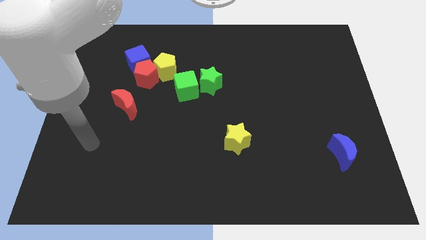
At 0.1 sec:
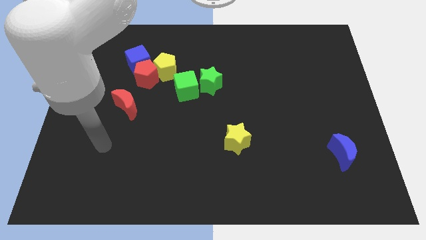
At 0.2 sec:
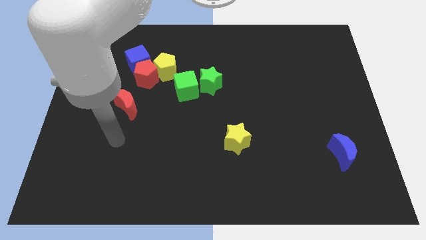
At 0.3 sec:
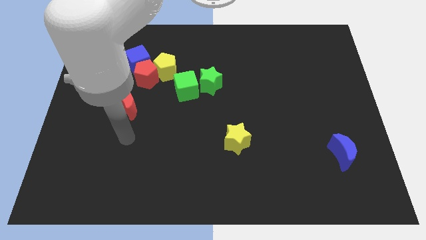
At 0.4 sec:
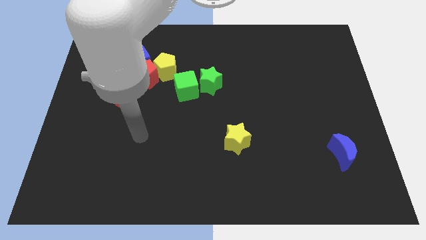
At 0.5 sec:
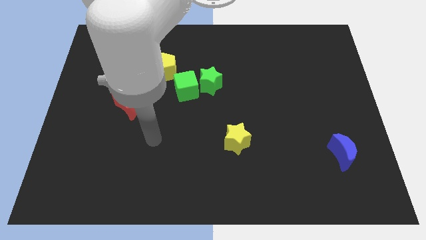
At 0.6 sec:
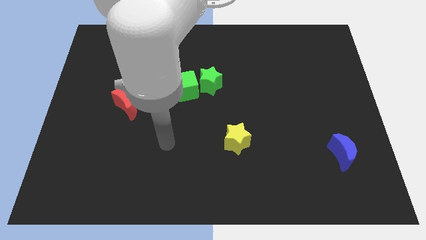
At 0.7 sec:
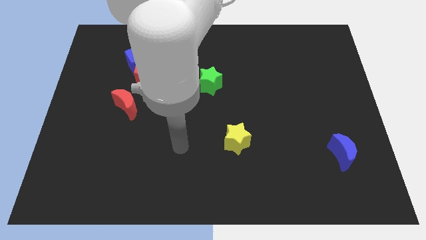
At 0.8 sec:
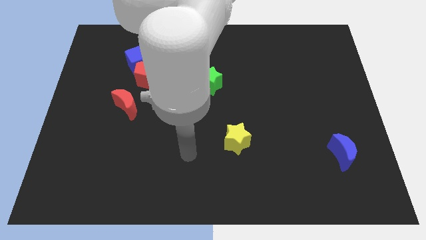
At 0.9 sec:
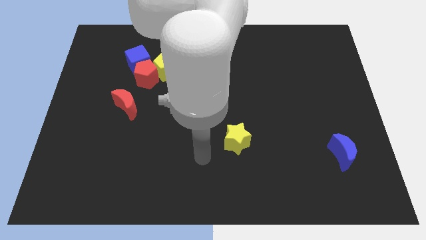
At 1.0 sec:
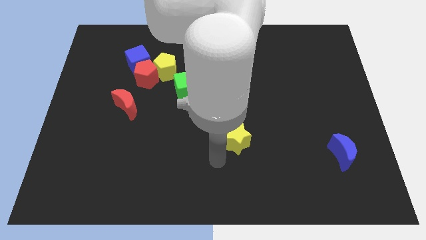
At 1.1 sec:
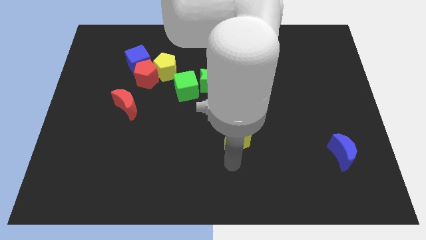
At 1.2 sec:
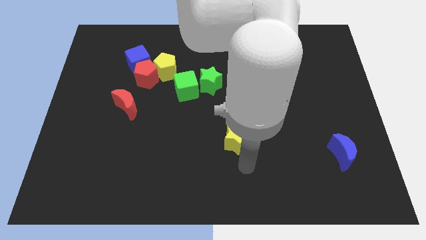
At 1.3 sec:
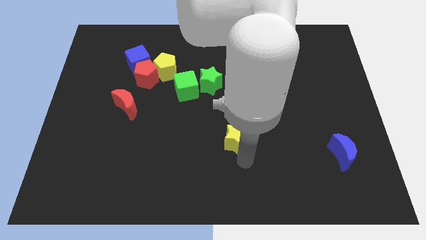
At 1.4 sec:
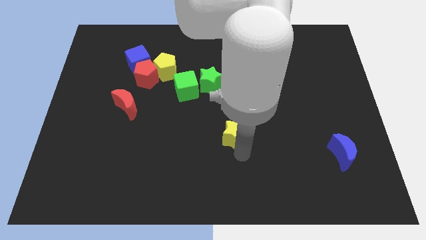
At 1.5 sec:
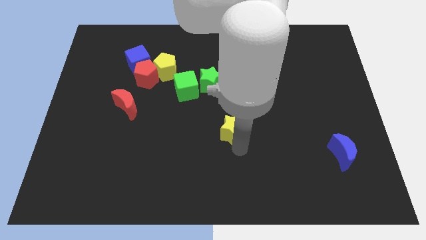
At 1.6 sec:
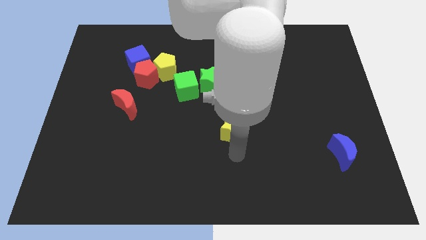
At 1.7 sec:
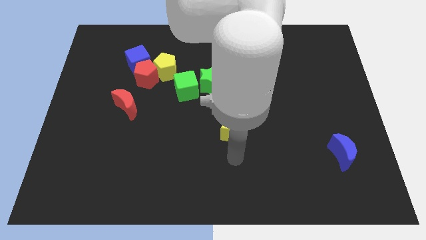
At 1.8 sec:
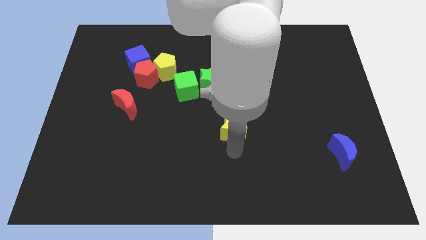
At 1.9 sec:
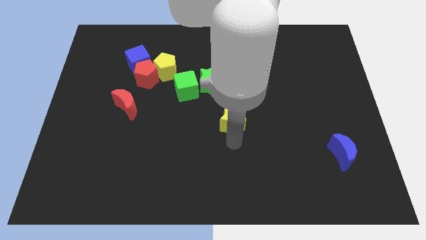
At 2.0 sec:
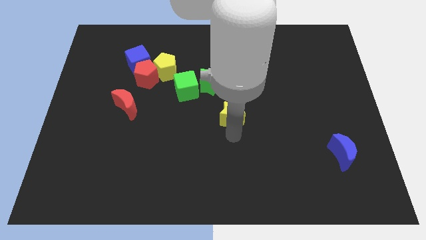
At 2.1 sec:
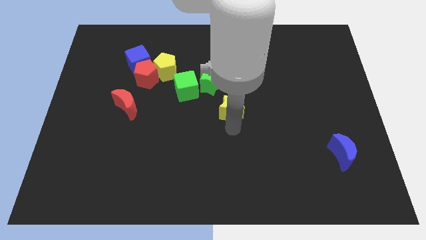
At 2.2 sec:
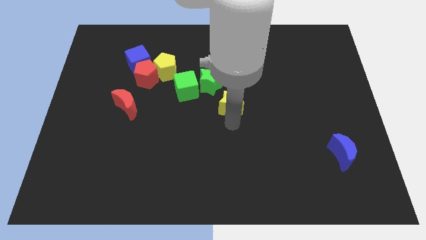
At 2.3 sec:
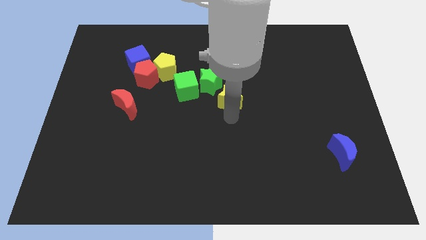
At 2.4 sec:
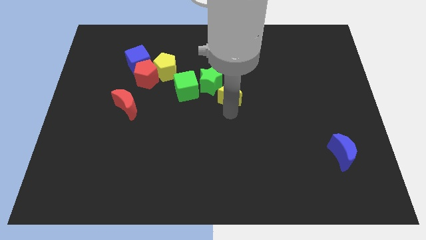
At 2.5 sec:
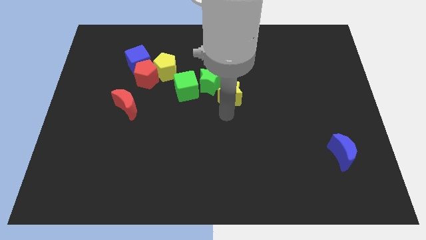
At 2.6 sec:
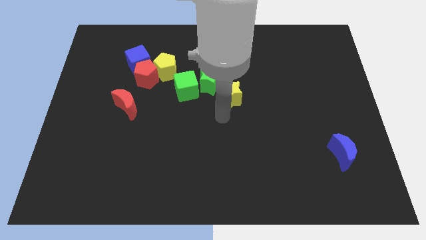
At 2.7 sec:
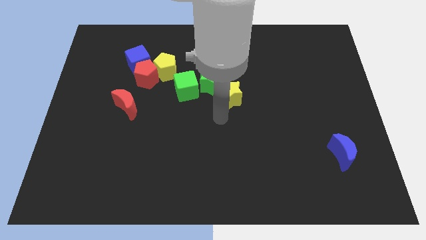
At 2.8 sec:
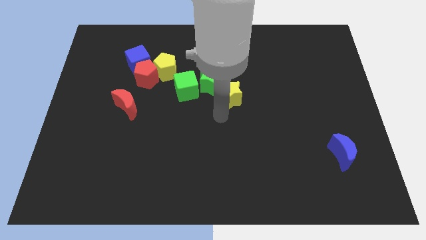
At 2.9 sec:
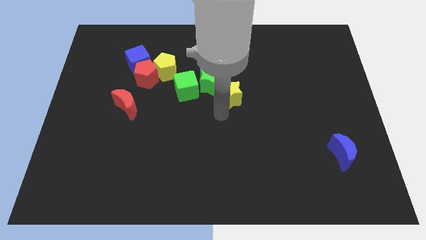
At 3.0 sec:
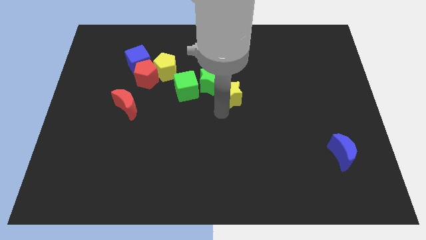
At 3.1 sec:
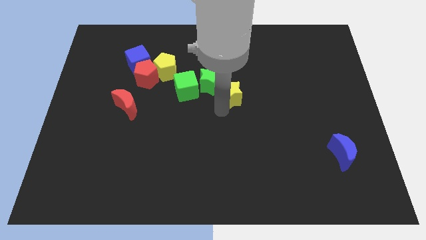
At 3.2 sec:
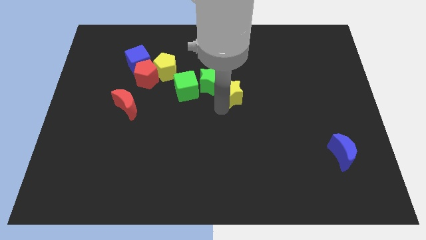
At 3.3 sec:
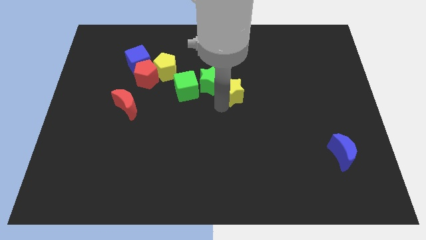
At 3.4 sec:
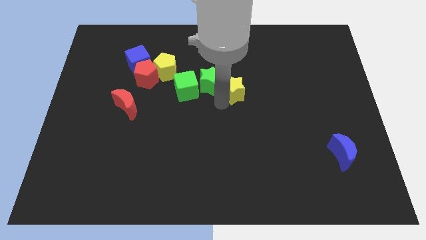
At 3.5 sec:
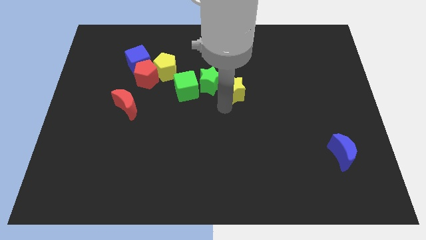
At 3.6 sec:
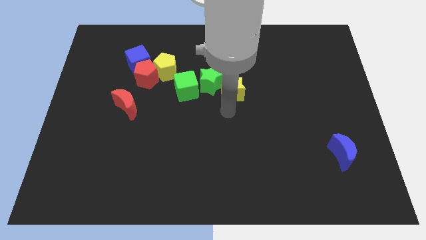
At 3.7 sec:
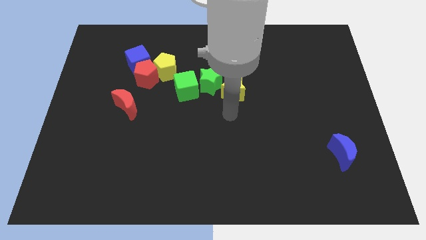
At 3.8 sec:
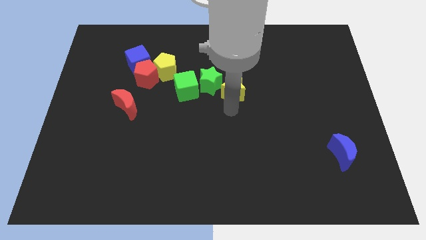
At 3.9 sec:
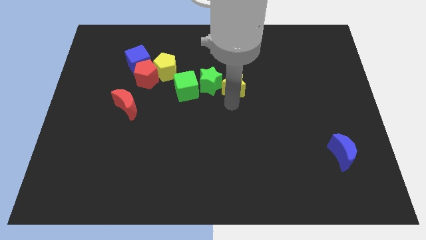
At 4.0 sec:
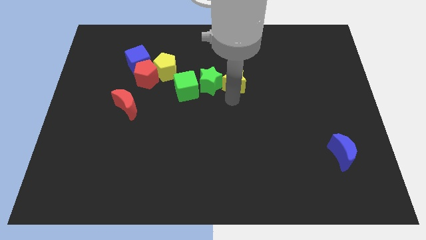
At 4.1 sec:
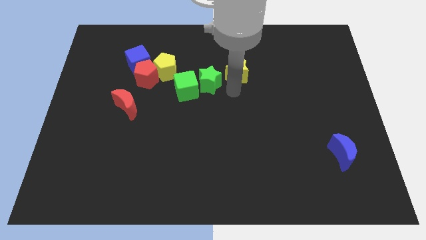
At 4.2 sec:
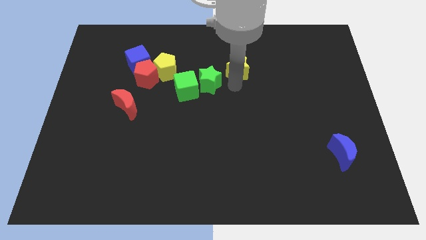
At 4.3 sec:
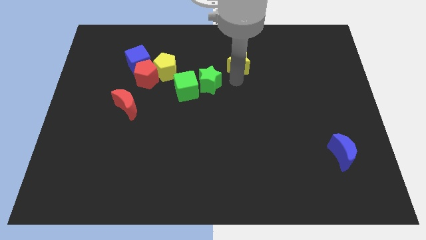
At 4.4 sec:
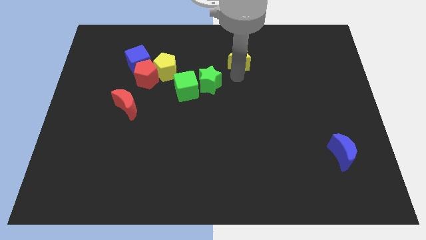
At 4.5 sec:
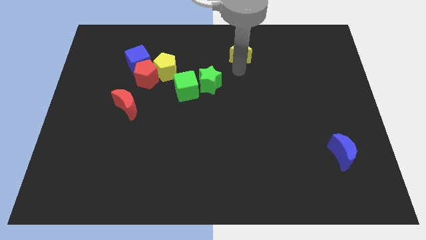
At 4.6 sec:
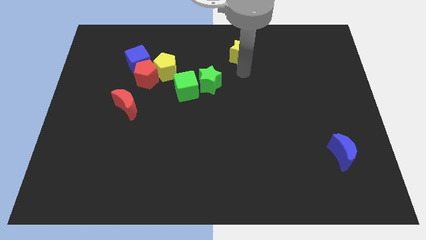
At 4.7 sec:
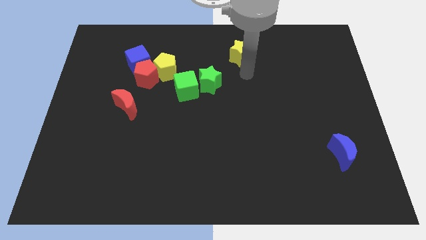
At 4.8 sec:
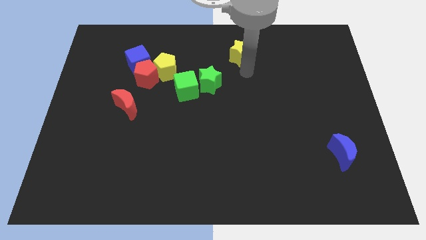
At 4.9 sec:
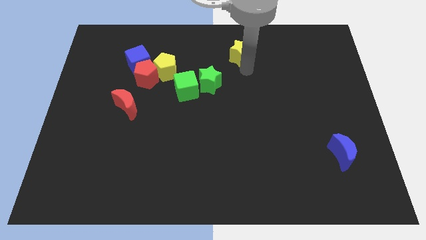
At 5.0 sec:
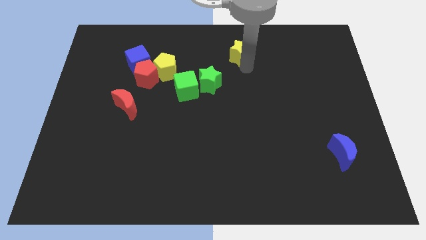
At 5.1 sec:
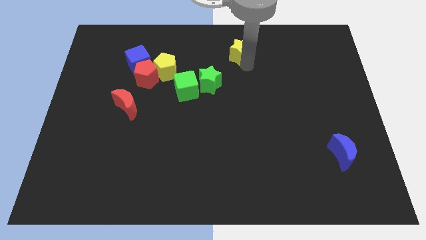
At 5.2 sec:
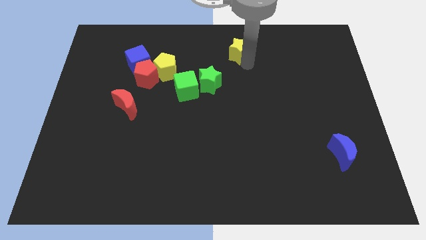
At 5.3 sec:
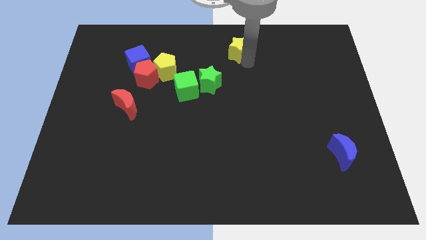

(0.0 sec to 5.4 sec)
move the yellow star to the towards your base

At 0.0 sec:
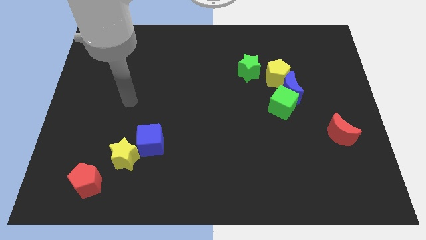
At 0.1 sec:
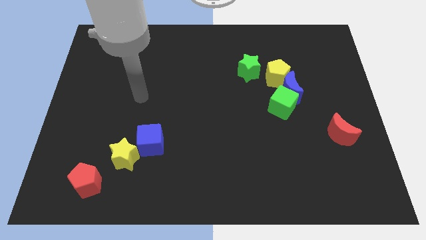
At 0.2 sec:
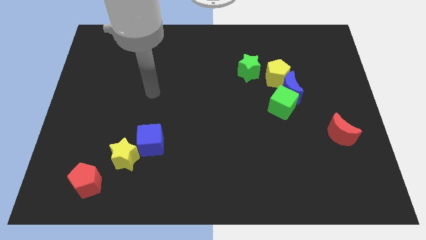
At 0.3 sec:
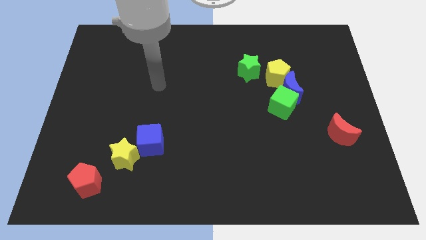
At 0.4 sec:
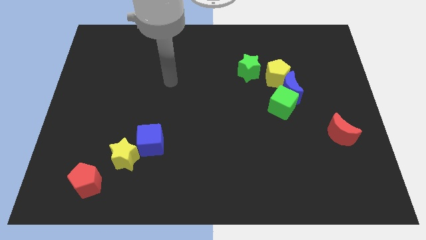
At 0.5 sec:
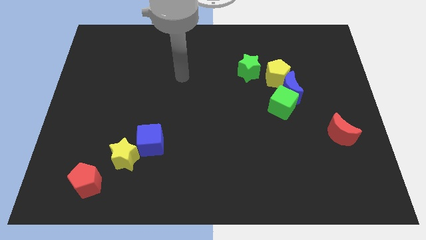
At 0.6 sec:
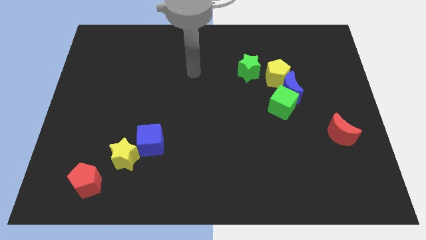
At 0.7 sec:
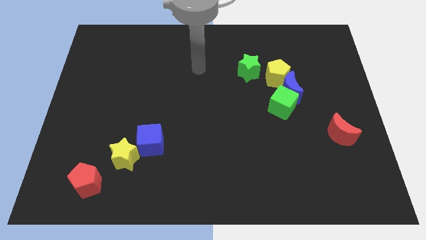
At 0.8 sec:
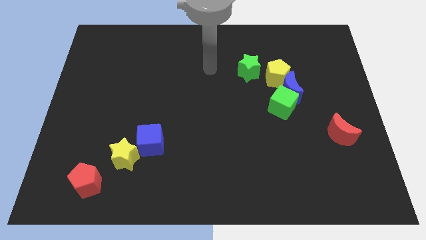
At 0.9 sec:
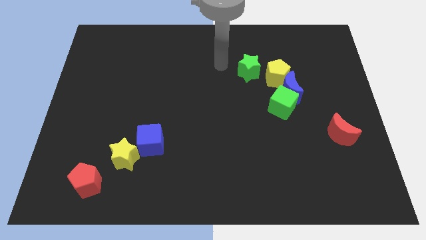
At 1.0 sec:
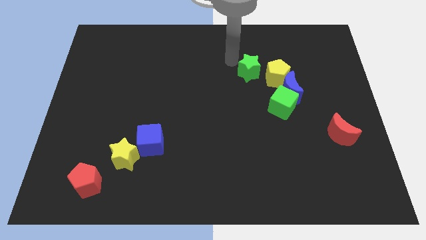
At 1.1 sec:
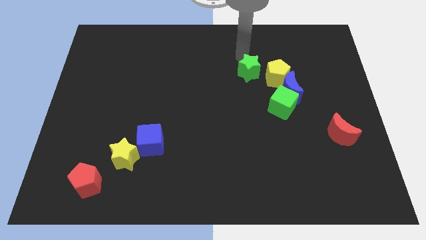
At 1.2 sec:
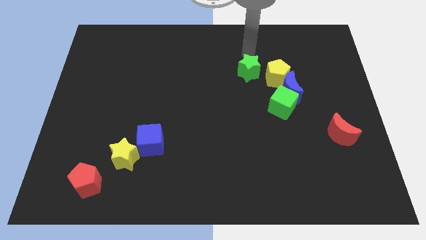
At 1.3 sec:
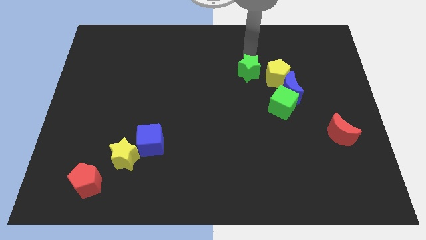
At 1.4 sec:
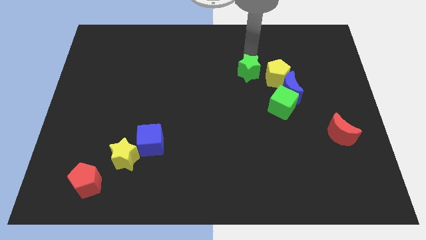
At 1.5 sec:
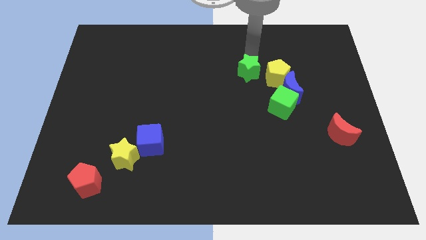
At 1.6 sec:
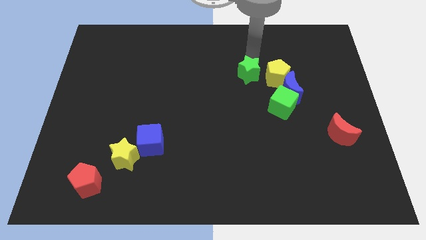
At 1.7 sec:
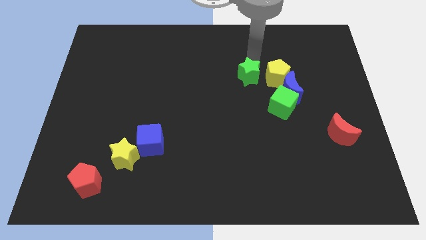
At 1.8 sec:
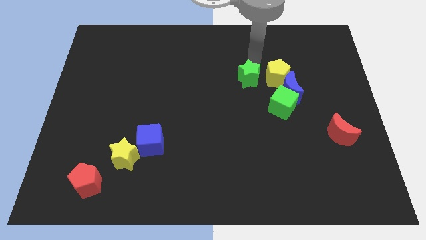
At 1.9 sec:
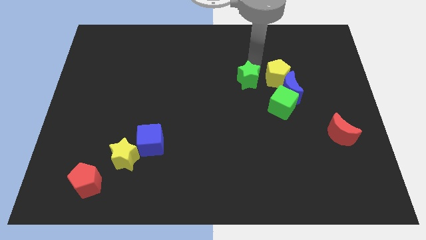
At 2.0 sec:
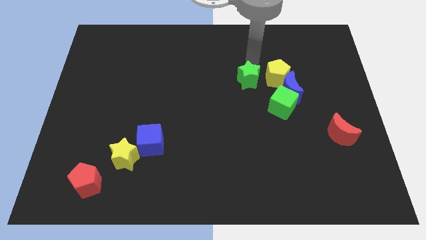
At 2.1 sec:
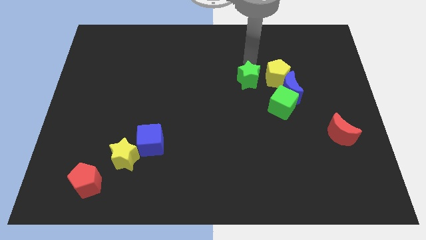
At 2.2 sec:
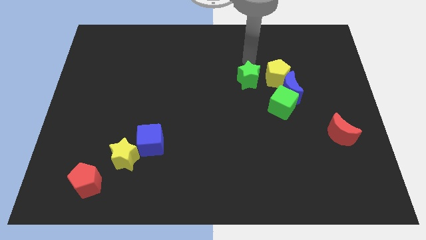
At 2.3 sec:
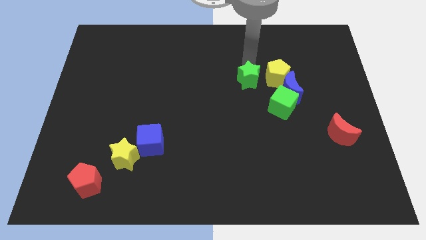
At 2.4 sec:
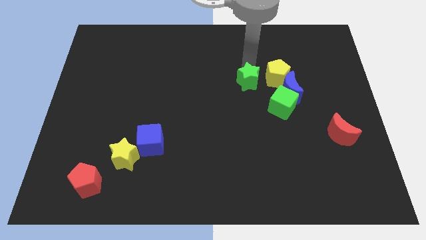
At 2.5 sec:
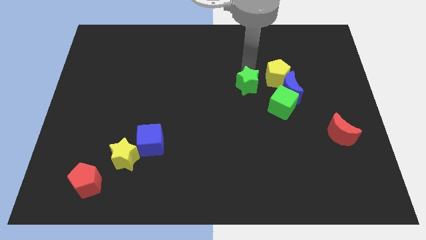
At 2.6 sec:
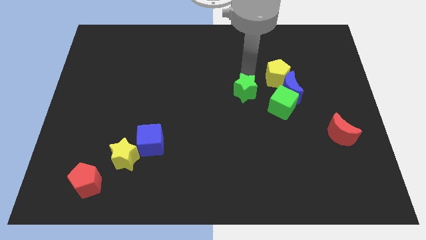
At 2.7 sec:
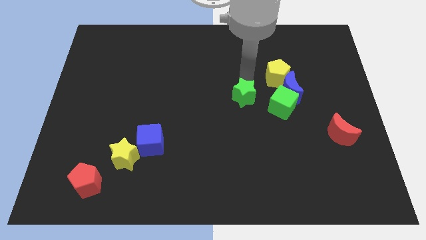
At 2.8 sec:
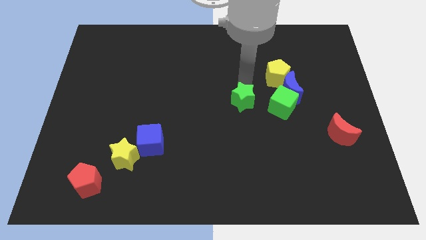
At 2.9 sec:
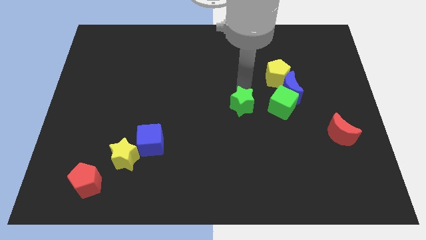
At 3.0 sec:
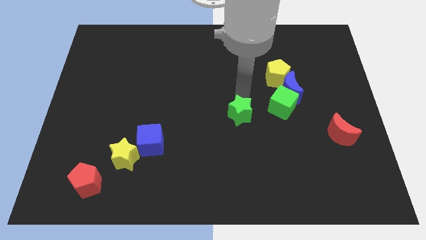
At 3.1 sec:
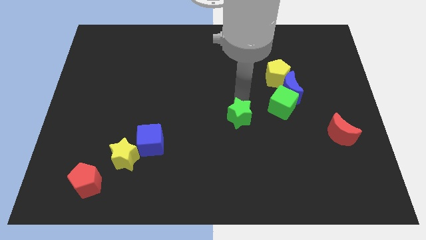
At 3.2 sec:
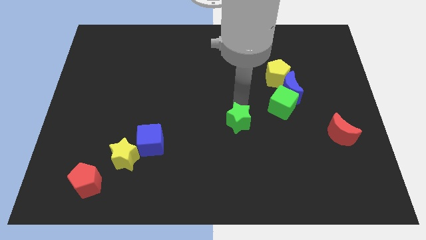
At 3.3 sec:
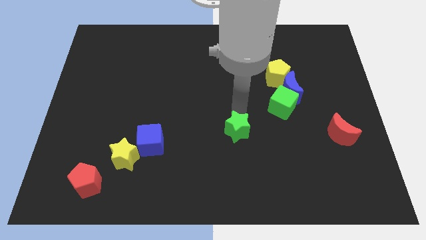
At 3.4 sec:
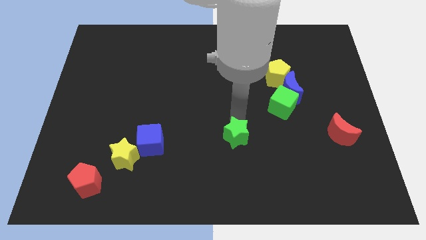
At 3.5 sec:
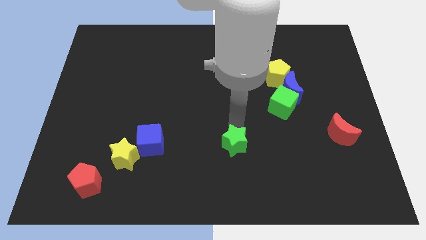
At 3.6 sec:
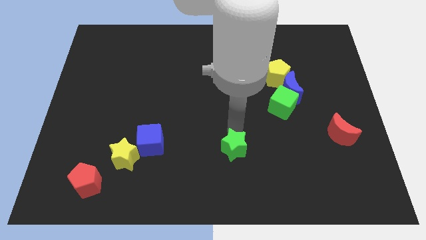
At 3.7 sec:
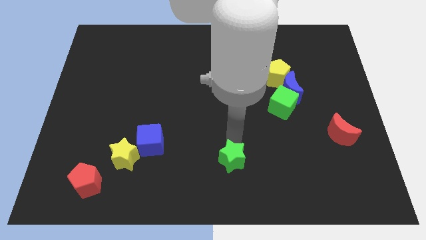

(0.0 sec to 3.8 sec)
push the green star to the bottom
